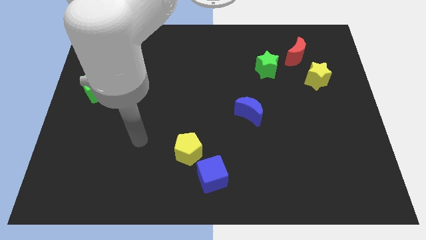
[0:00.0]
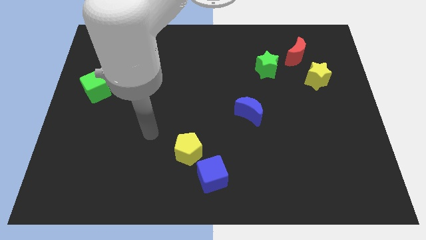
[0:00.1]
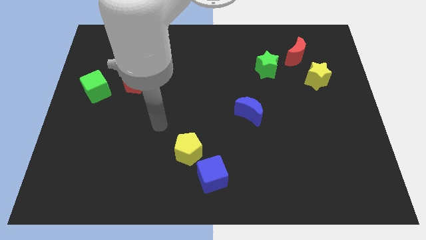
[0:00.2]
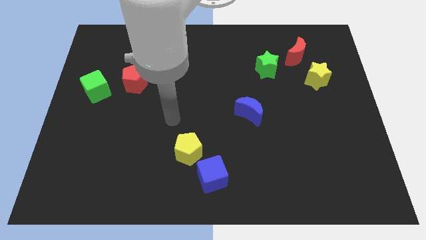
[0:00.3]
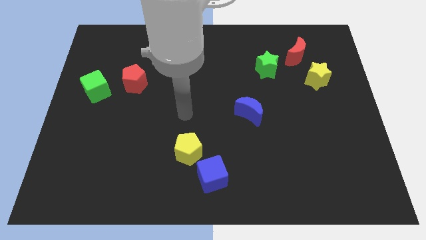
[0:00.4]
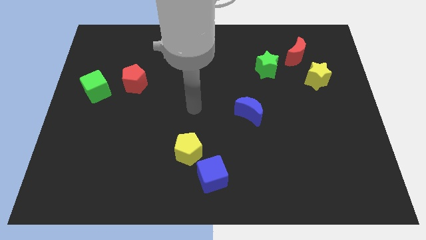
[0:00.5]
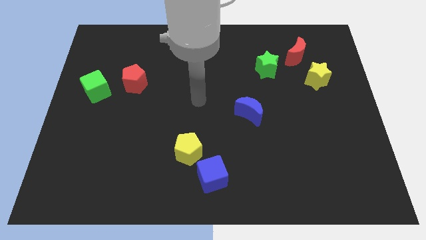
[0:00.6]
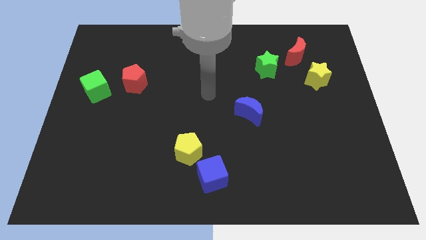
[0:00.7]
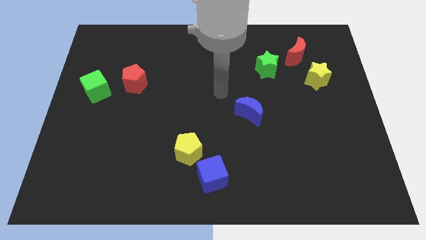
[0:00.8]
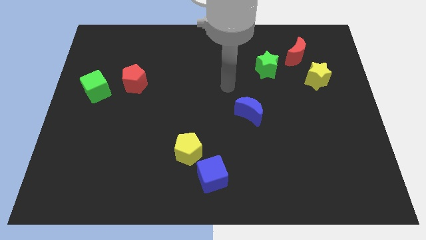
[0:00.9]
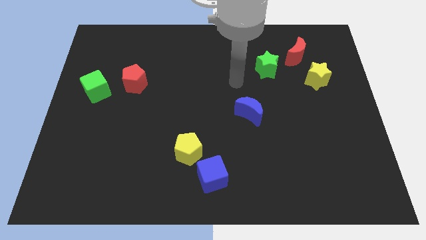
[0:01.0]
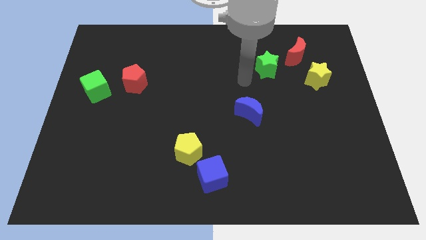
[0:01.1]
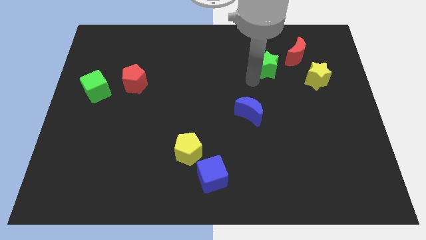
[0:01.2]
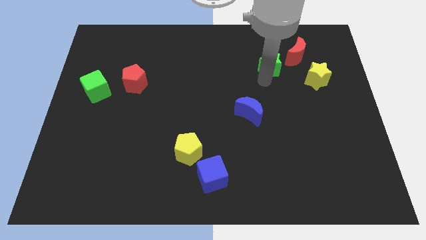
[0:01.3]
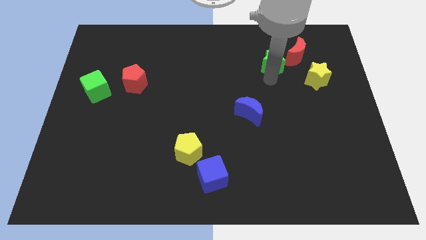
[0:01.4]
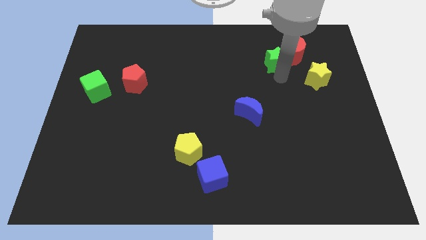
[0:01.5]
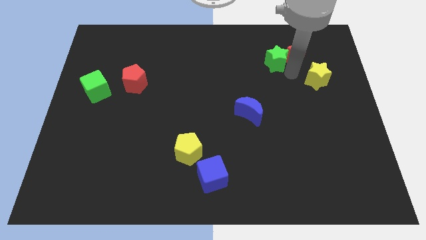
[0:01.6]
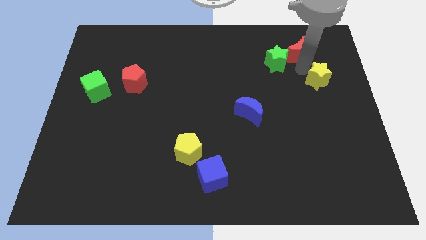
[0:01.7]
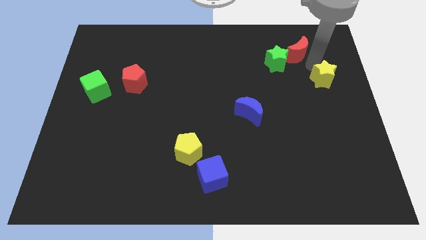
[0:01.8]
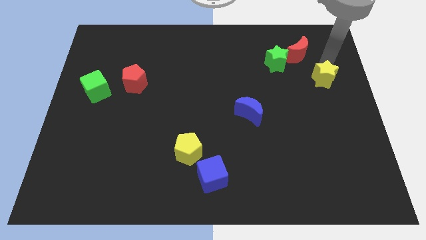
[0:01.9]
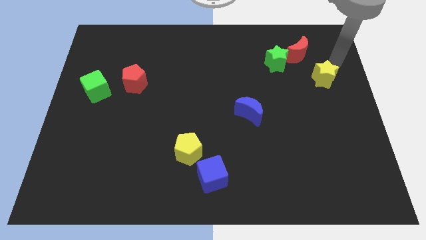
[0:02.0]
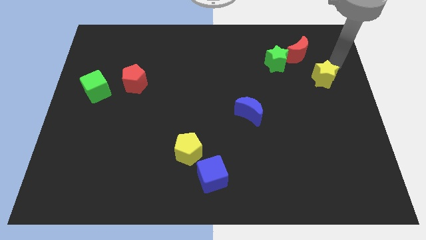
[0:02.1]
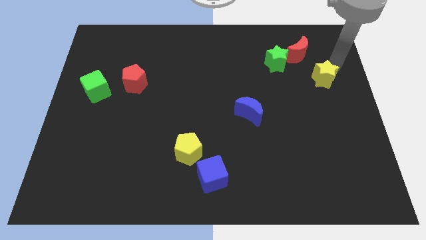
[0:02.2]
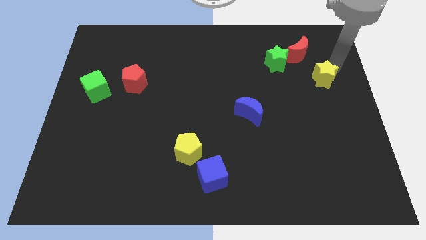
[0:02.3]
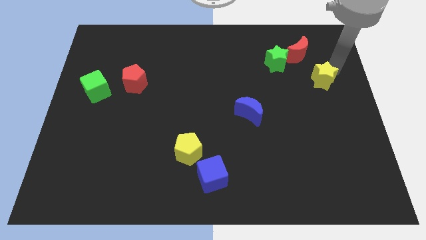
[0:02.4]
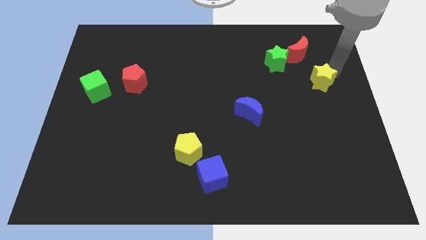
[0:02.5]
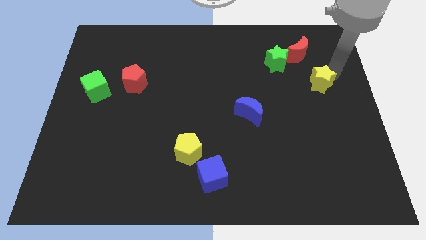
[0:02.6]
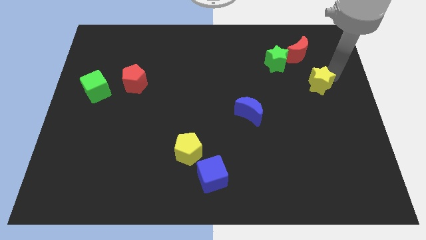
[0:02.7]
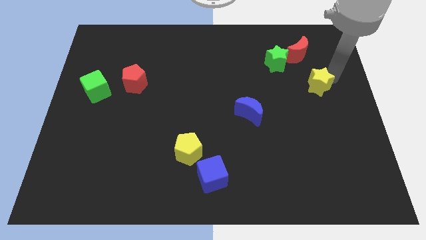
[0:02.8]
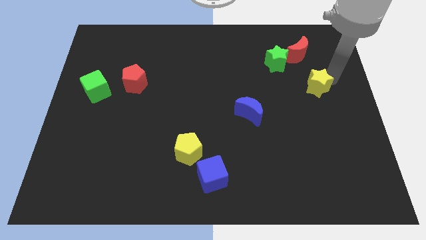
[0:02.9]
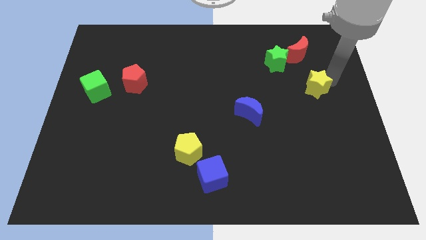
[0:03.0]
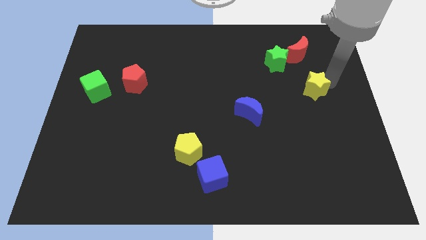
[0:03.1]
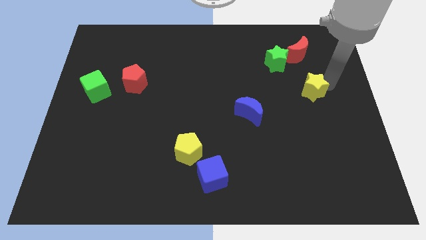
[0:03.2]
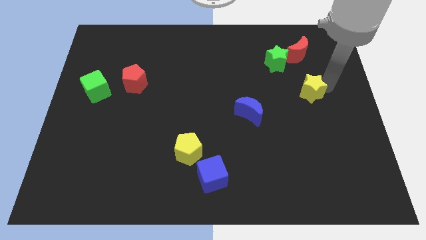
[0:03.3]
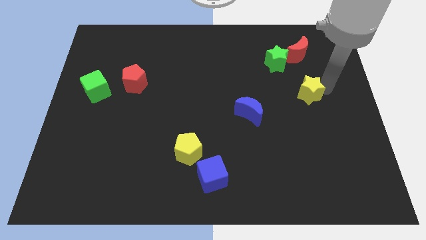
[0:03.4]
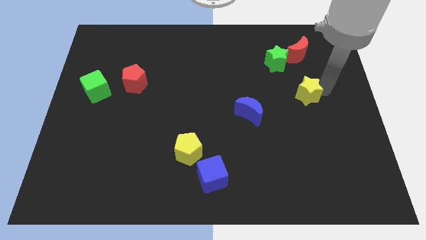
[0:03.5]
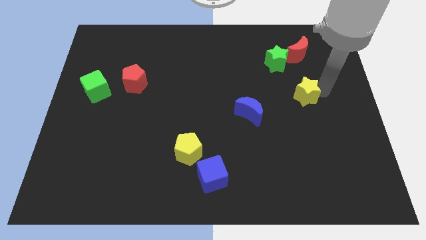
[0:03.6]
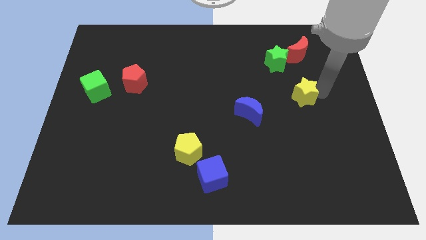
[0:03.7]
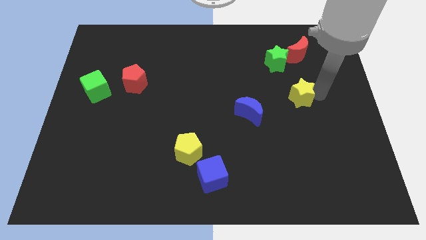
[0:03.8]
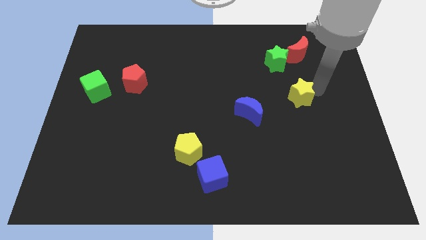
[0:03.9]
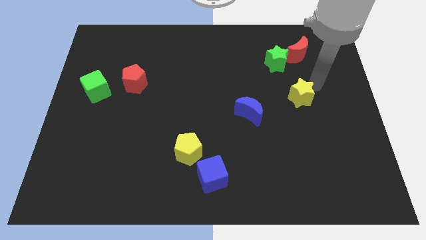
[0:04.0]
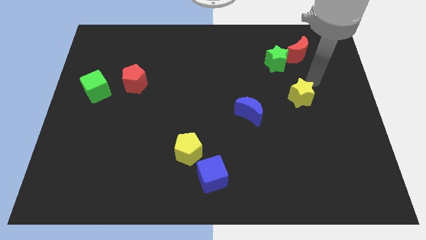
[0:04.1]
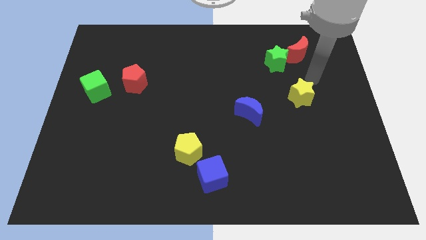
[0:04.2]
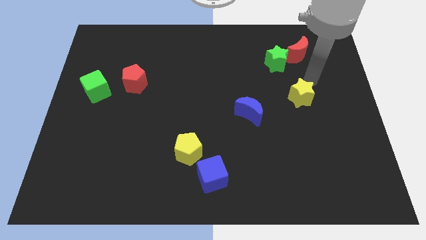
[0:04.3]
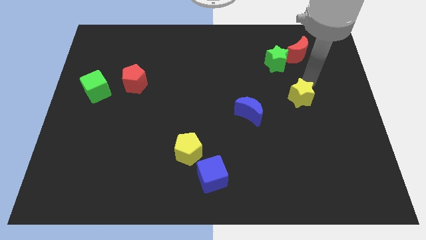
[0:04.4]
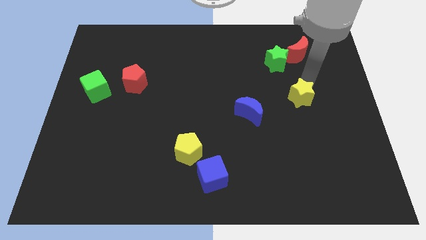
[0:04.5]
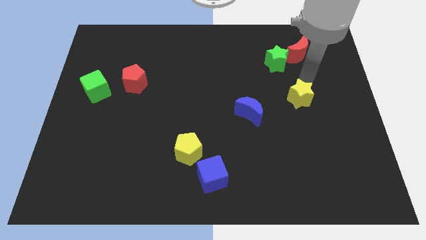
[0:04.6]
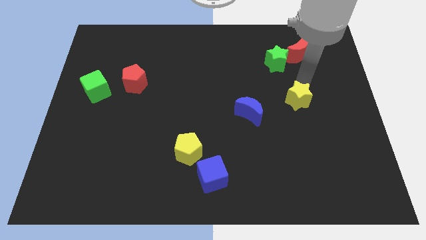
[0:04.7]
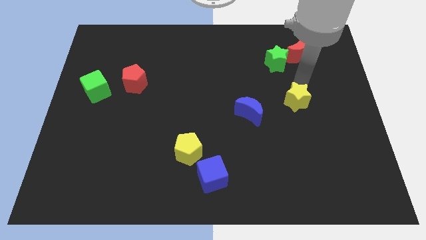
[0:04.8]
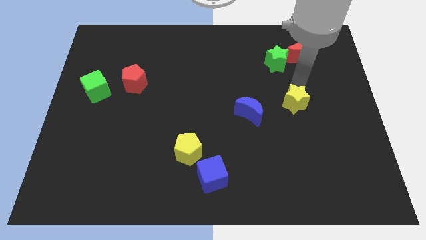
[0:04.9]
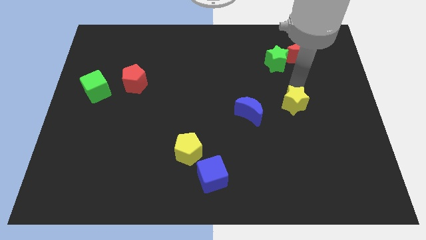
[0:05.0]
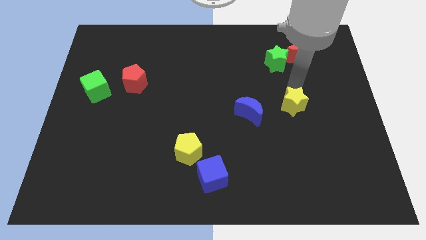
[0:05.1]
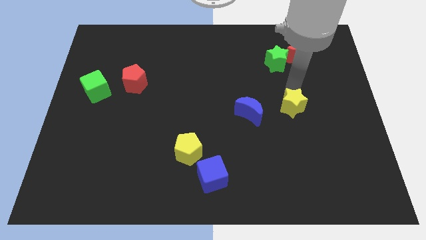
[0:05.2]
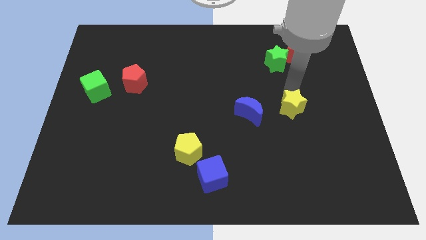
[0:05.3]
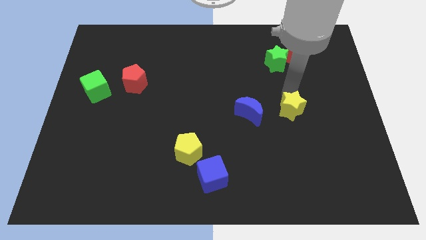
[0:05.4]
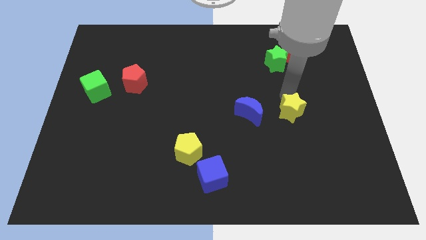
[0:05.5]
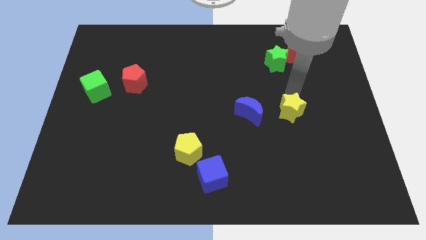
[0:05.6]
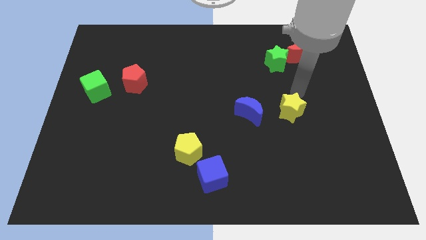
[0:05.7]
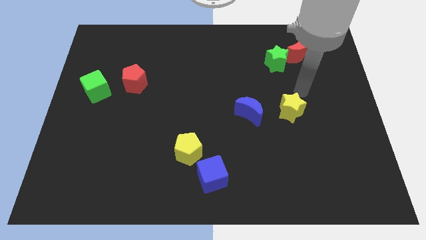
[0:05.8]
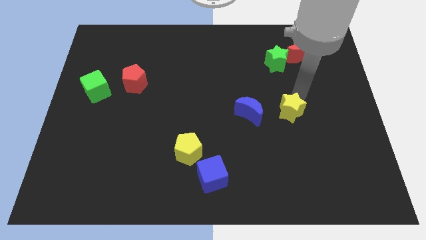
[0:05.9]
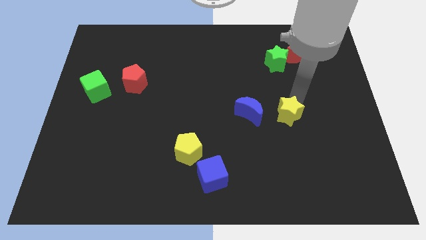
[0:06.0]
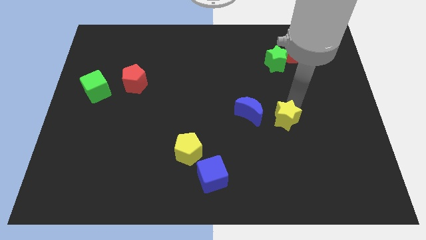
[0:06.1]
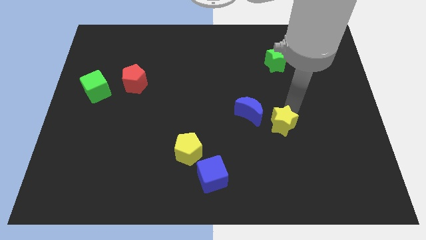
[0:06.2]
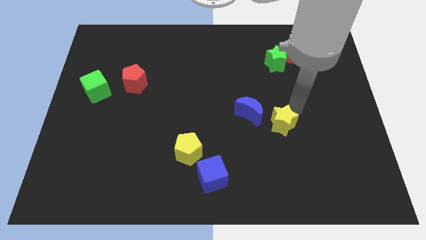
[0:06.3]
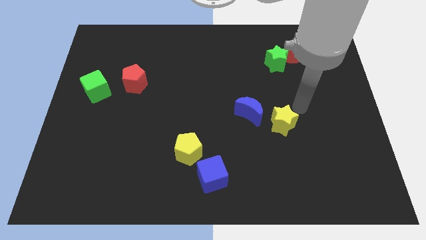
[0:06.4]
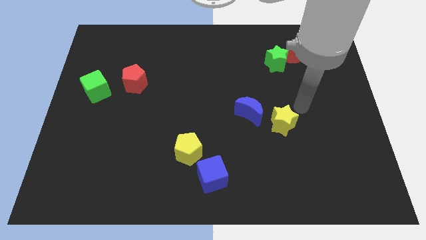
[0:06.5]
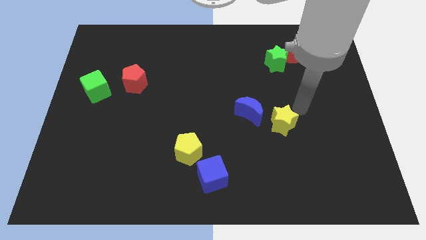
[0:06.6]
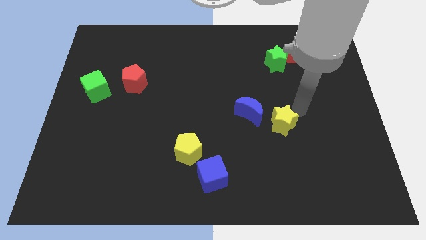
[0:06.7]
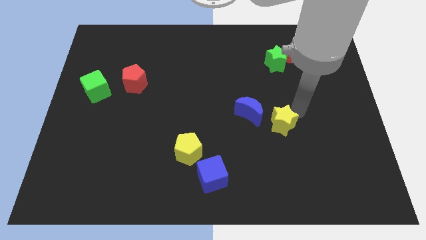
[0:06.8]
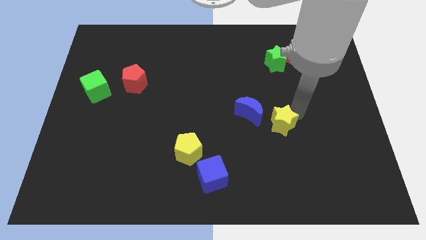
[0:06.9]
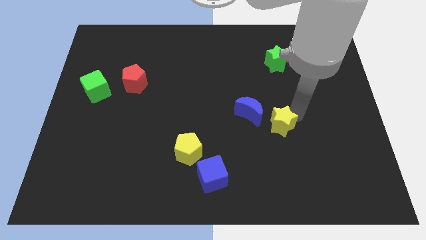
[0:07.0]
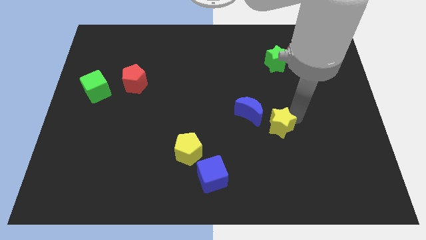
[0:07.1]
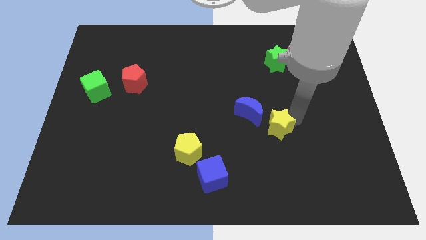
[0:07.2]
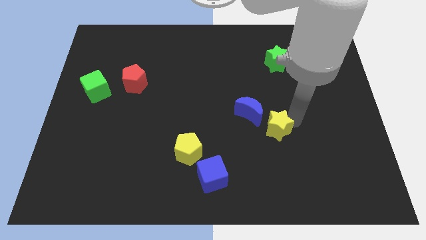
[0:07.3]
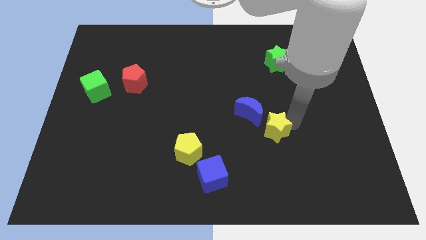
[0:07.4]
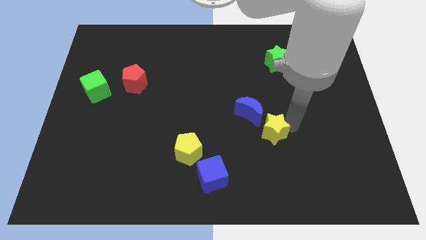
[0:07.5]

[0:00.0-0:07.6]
push the yellow star down and then left

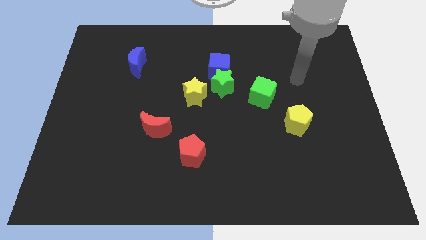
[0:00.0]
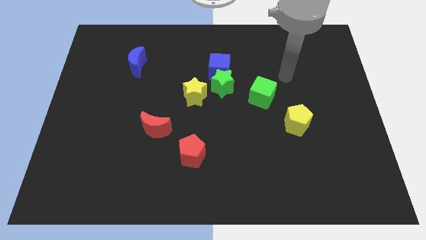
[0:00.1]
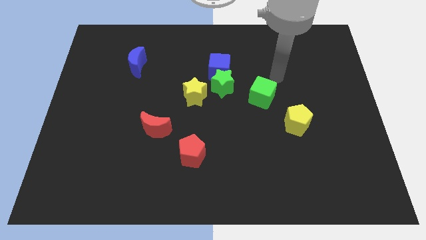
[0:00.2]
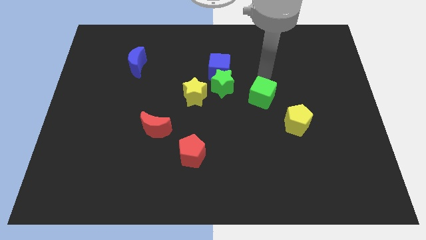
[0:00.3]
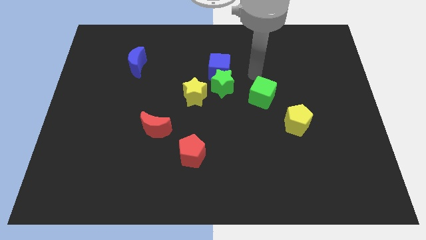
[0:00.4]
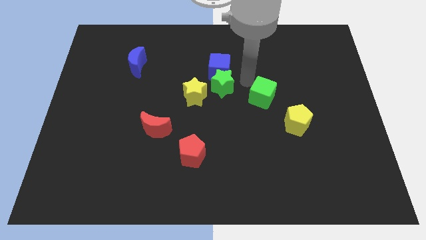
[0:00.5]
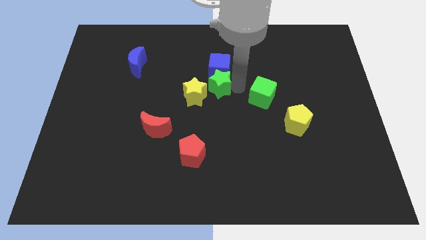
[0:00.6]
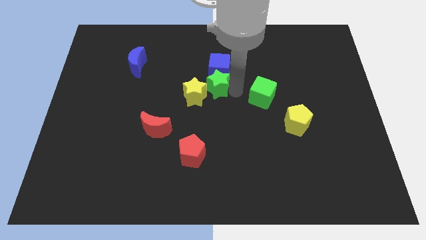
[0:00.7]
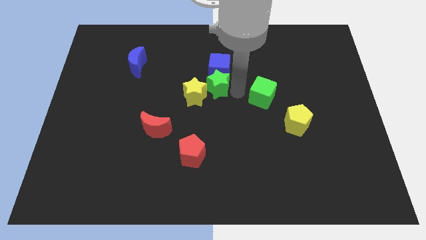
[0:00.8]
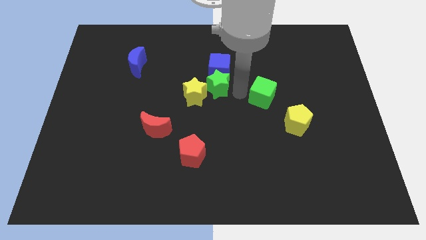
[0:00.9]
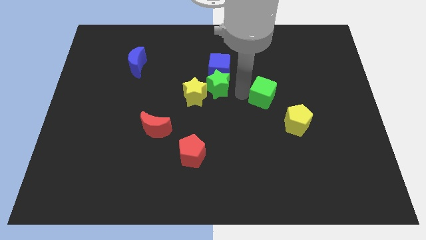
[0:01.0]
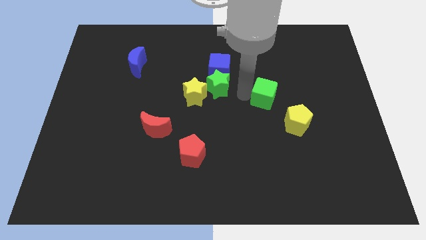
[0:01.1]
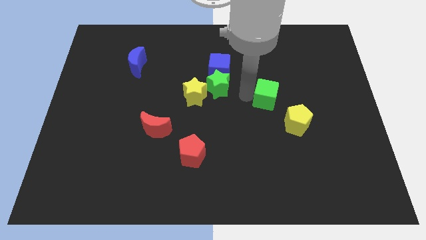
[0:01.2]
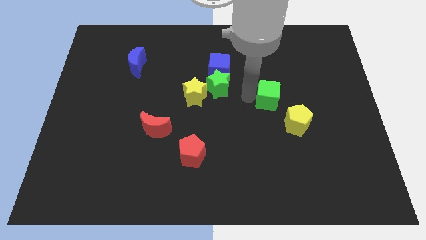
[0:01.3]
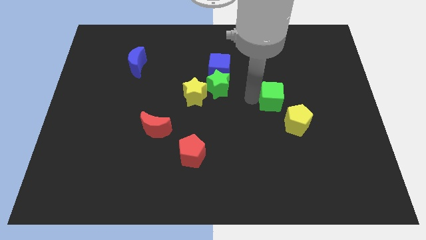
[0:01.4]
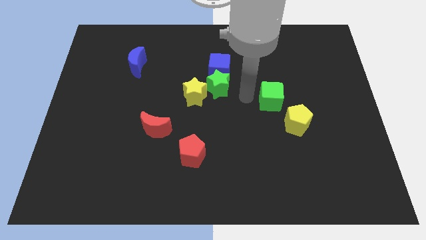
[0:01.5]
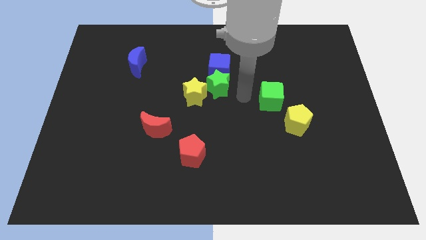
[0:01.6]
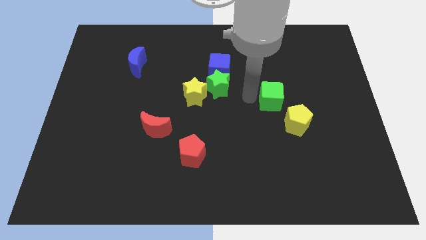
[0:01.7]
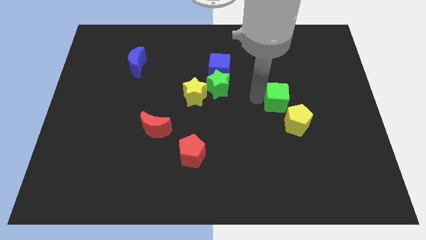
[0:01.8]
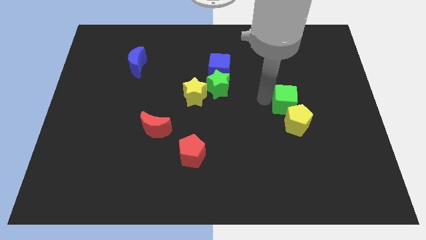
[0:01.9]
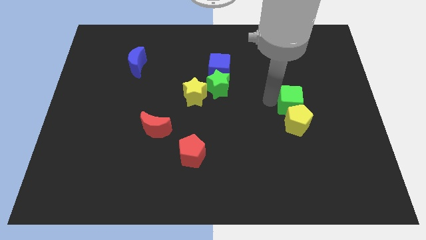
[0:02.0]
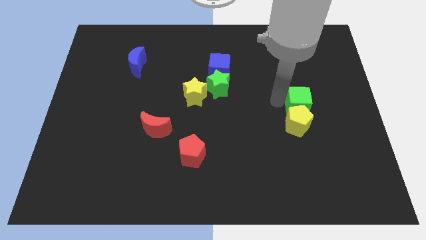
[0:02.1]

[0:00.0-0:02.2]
move the green cube a little bit down and right diagonally
